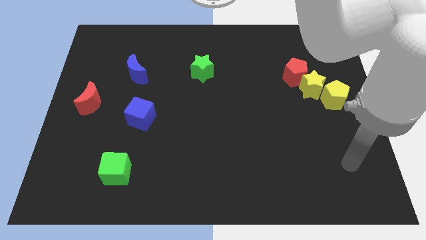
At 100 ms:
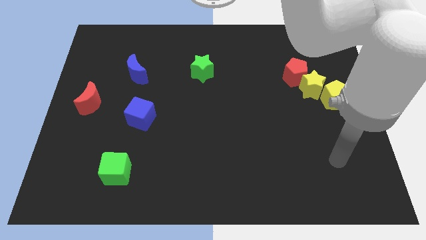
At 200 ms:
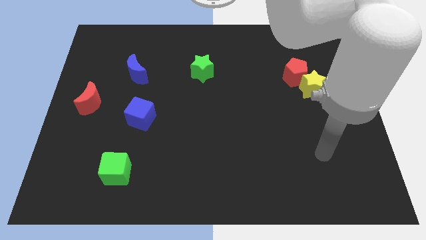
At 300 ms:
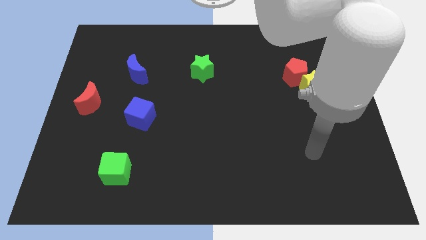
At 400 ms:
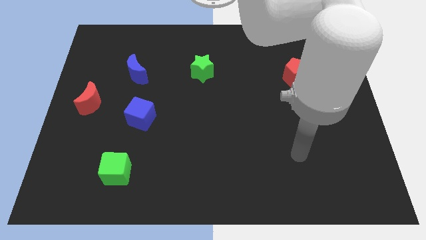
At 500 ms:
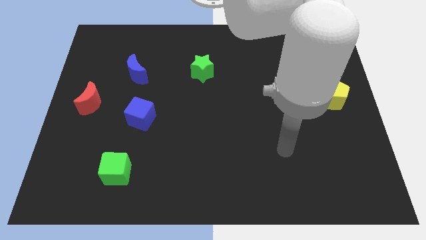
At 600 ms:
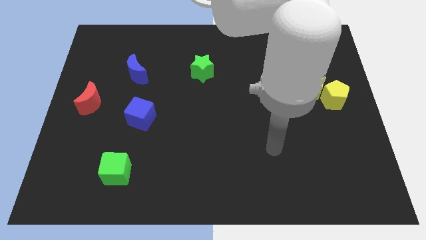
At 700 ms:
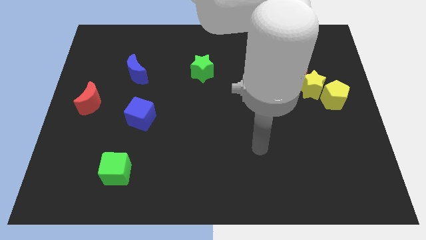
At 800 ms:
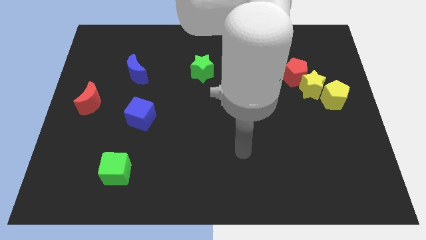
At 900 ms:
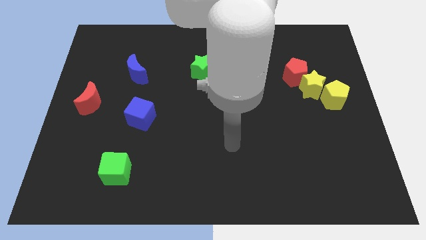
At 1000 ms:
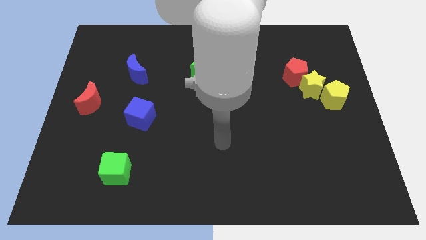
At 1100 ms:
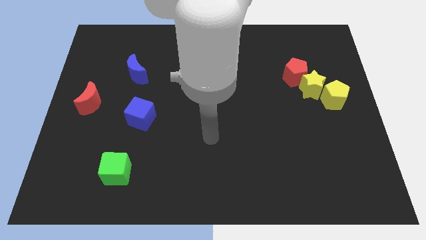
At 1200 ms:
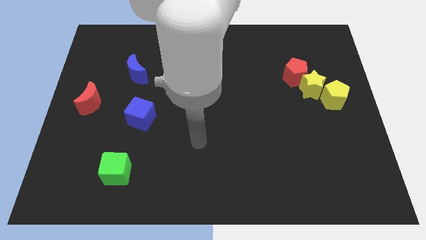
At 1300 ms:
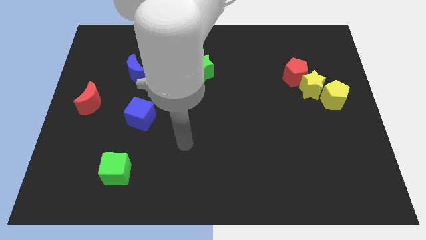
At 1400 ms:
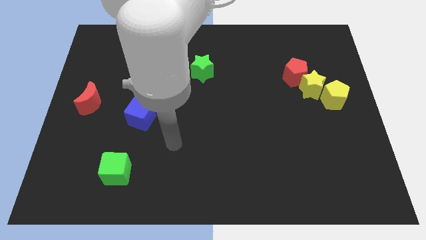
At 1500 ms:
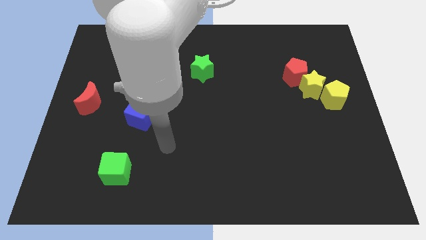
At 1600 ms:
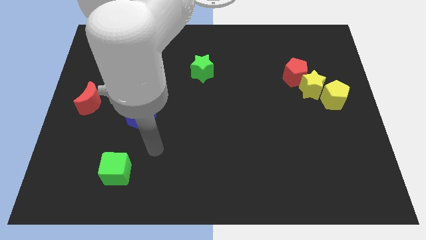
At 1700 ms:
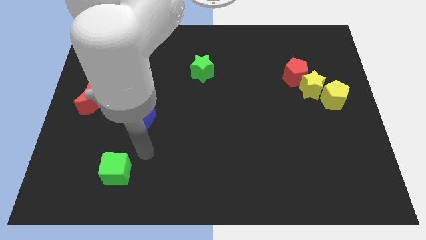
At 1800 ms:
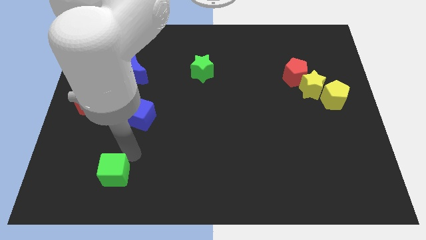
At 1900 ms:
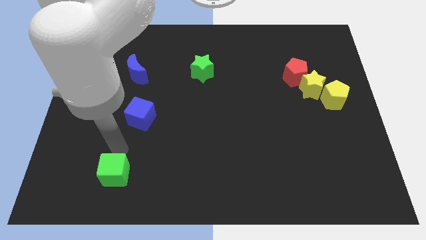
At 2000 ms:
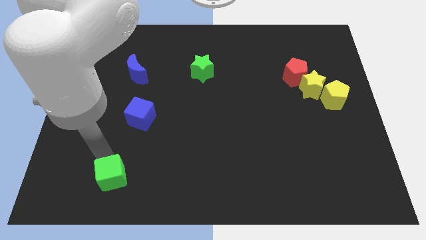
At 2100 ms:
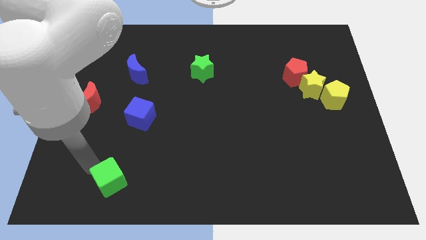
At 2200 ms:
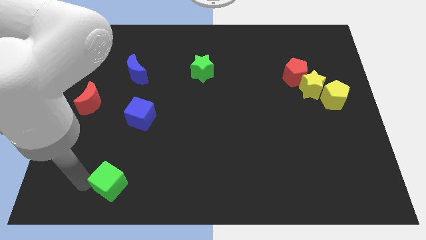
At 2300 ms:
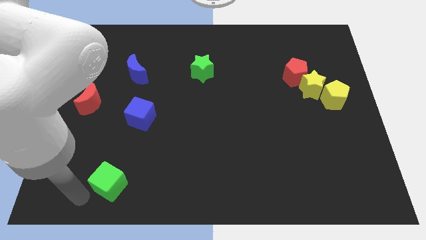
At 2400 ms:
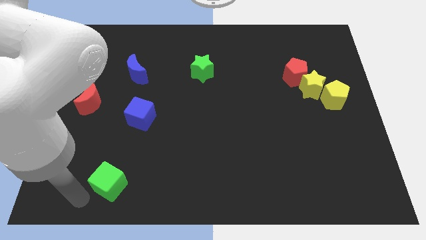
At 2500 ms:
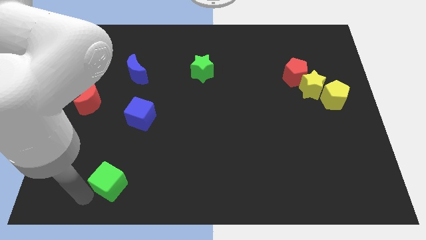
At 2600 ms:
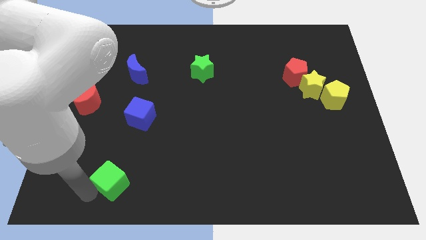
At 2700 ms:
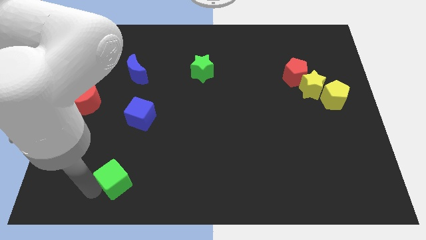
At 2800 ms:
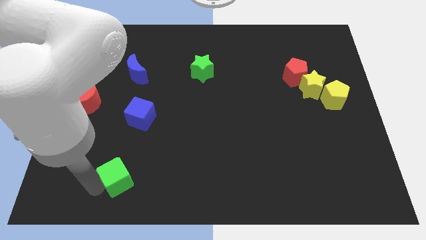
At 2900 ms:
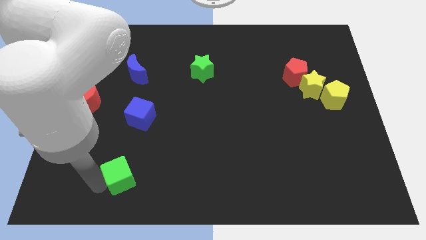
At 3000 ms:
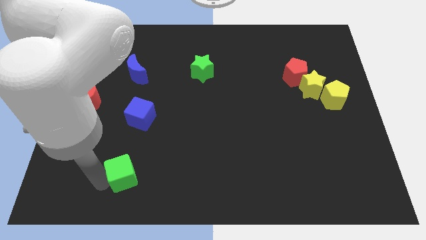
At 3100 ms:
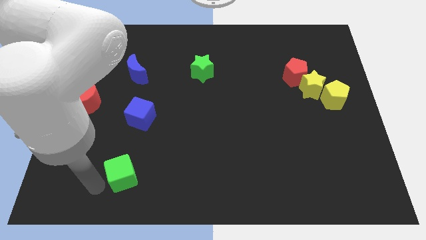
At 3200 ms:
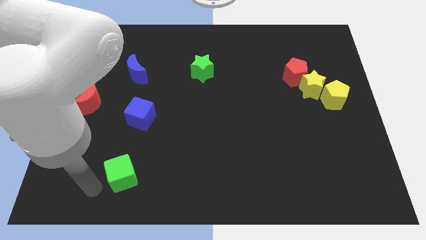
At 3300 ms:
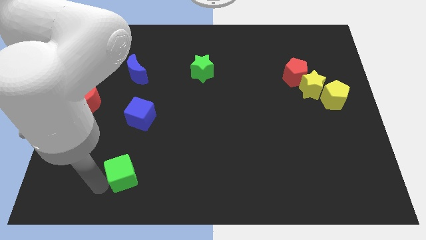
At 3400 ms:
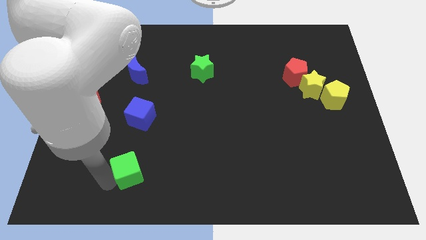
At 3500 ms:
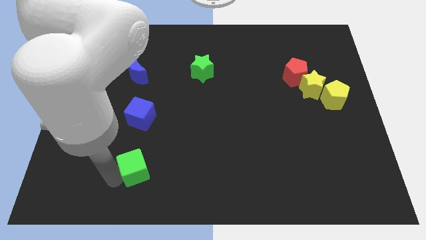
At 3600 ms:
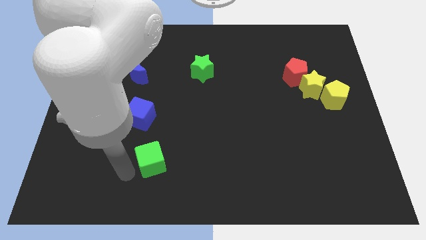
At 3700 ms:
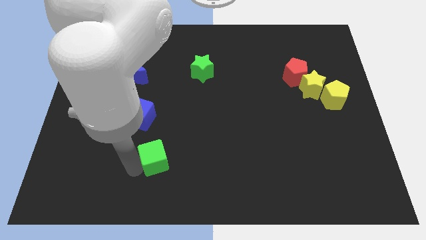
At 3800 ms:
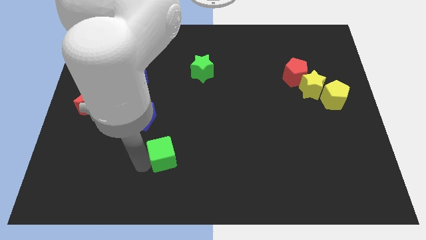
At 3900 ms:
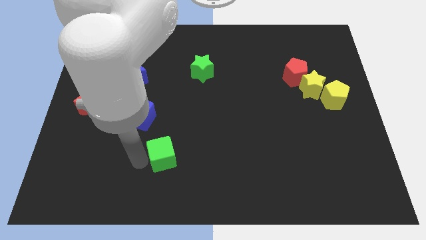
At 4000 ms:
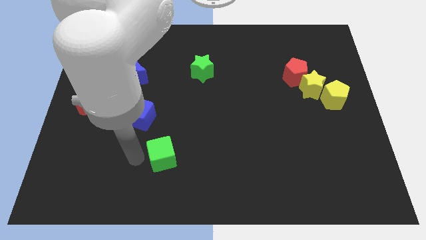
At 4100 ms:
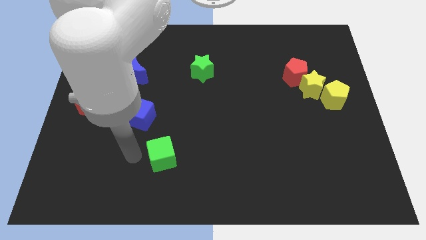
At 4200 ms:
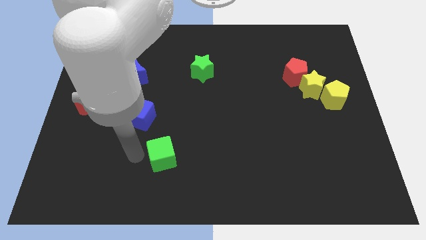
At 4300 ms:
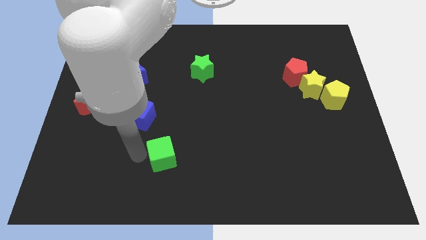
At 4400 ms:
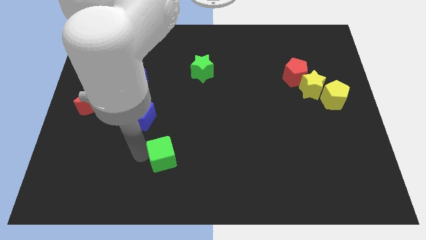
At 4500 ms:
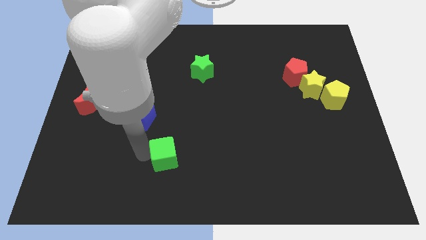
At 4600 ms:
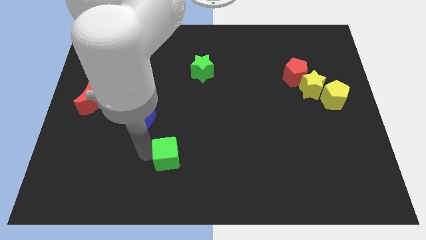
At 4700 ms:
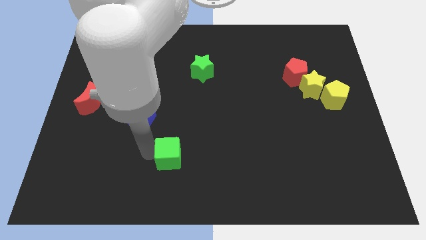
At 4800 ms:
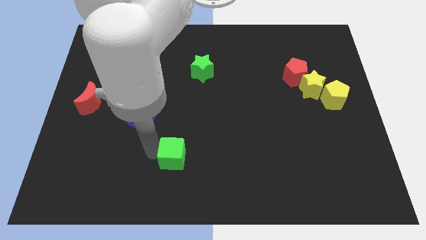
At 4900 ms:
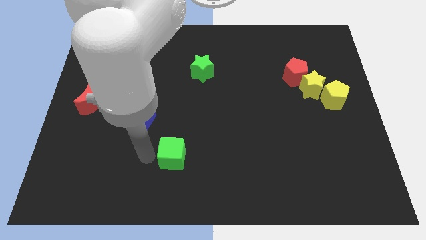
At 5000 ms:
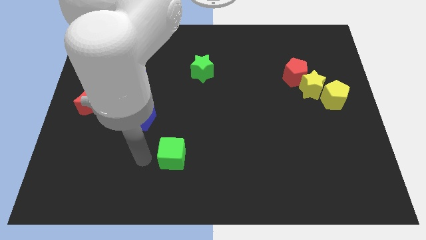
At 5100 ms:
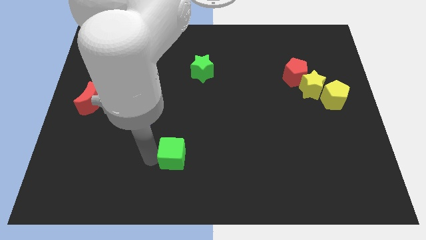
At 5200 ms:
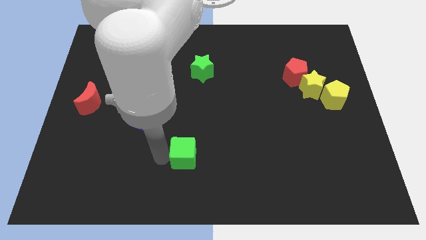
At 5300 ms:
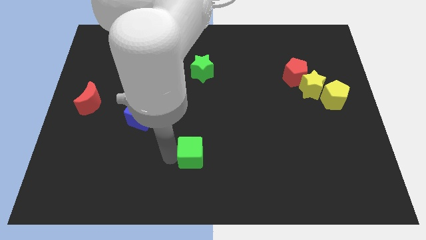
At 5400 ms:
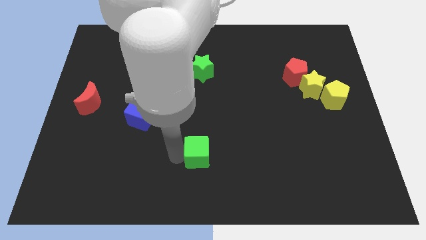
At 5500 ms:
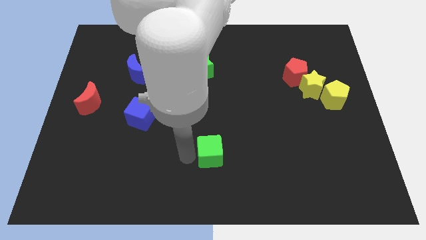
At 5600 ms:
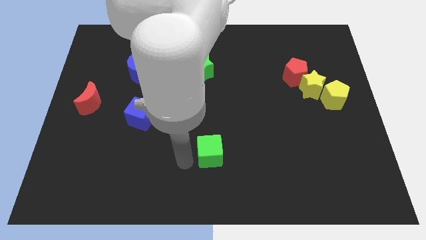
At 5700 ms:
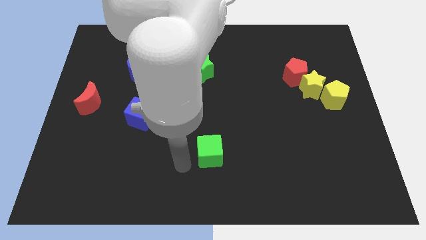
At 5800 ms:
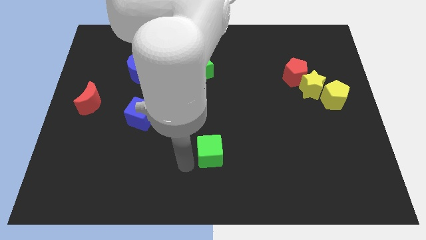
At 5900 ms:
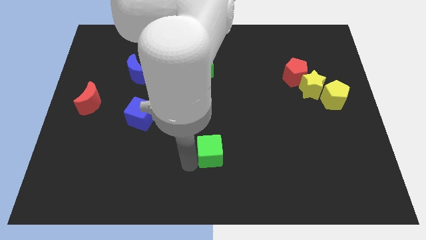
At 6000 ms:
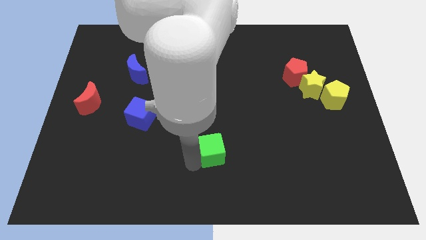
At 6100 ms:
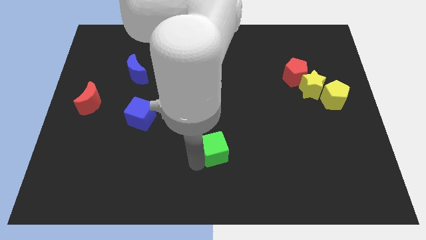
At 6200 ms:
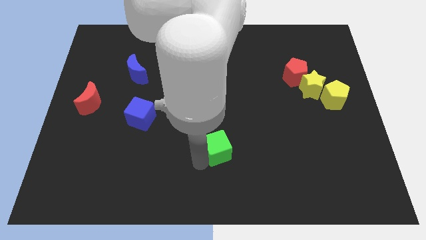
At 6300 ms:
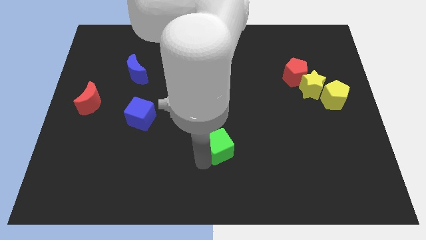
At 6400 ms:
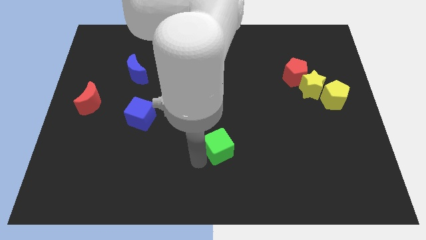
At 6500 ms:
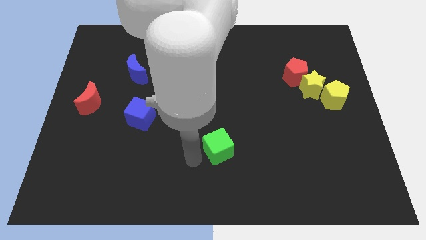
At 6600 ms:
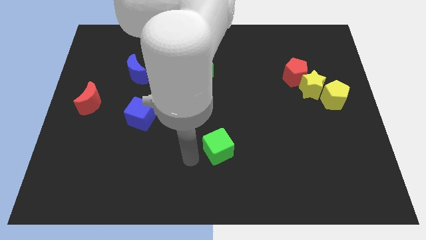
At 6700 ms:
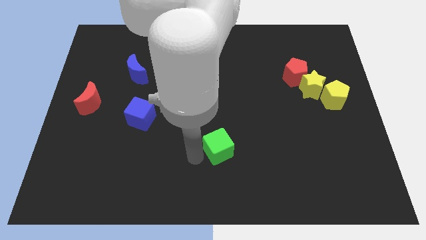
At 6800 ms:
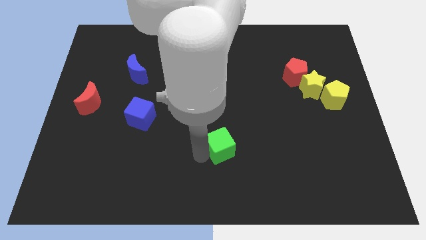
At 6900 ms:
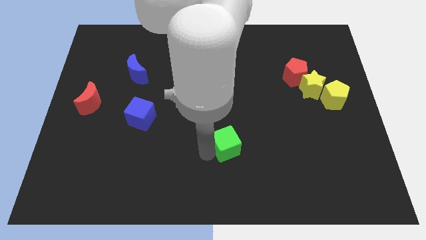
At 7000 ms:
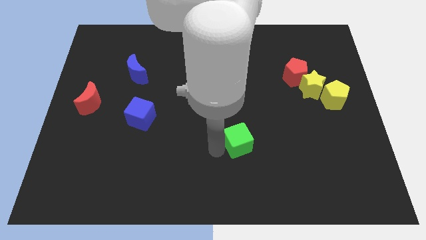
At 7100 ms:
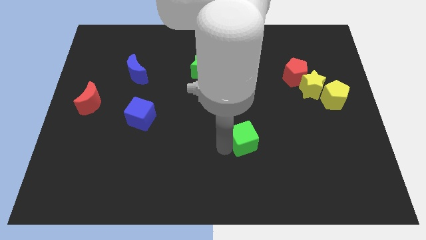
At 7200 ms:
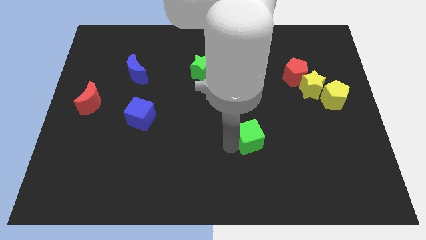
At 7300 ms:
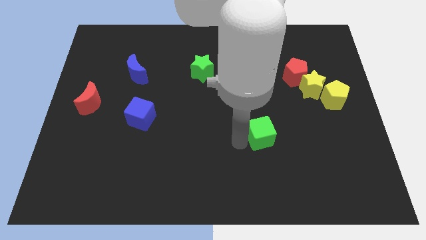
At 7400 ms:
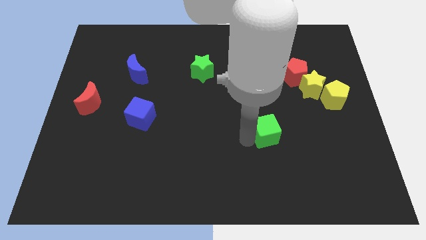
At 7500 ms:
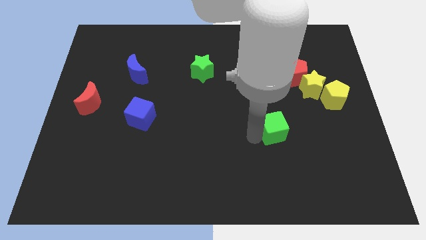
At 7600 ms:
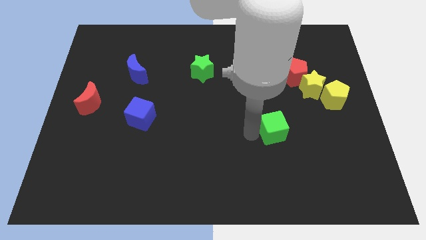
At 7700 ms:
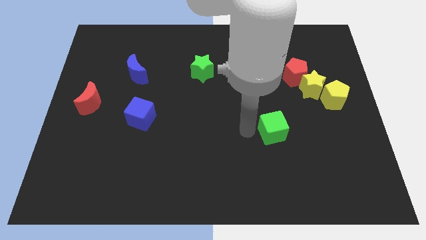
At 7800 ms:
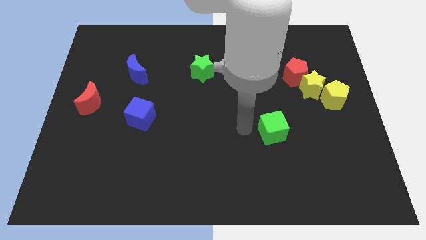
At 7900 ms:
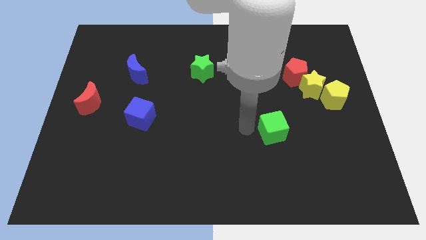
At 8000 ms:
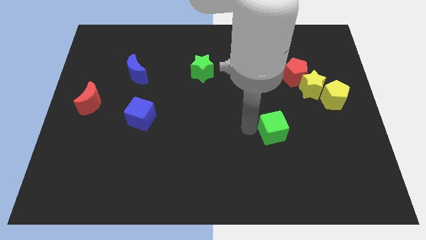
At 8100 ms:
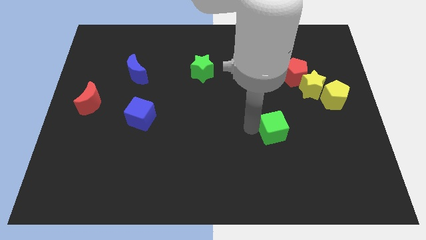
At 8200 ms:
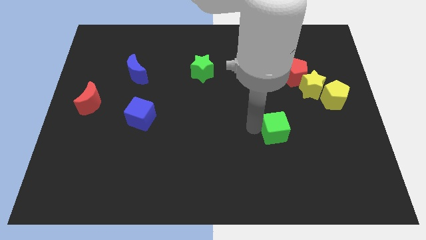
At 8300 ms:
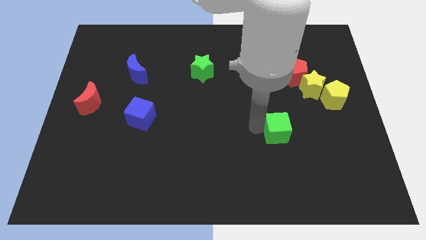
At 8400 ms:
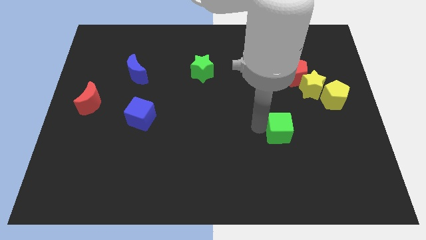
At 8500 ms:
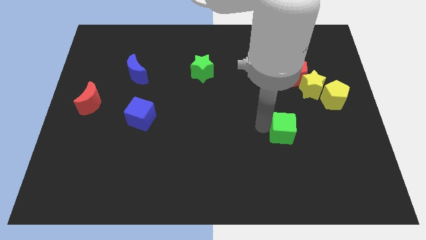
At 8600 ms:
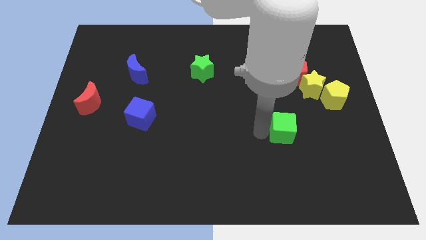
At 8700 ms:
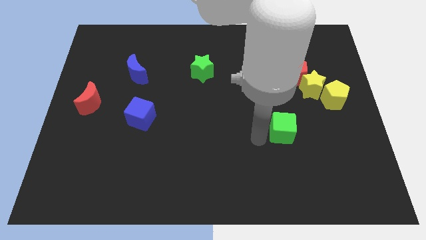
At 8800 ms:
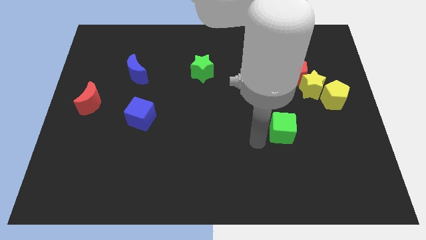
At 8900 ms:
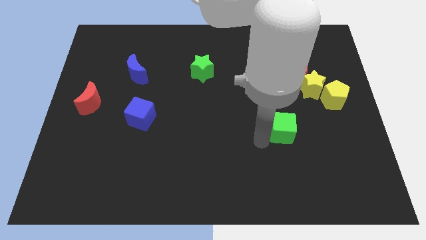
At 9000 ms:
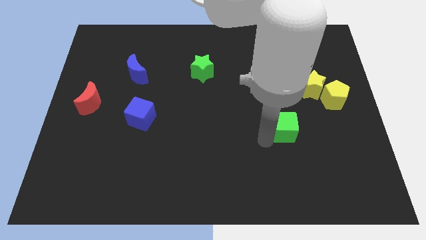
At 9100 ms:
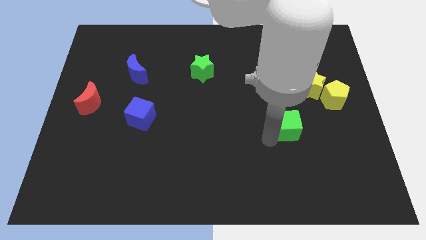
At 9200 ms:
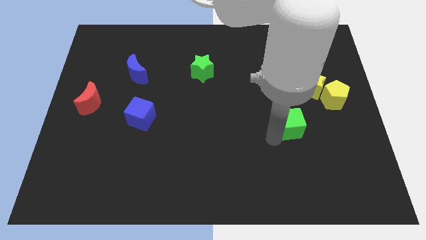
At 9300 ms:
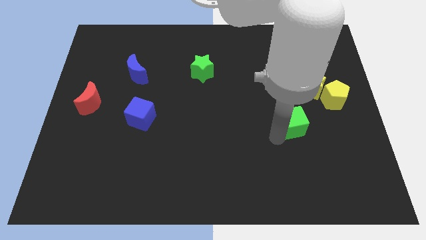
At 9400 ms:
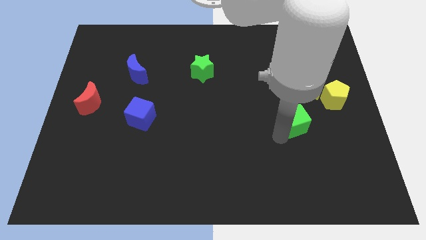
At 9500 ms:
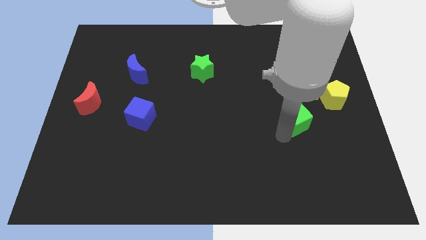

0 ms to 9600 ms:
slide the green cube diagonally down and to the left of the yellow pentagon
